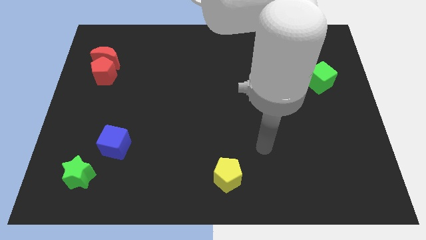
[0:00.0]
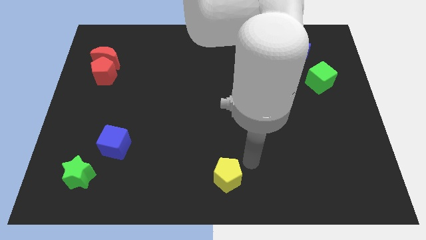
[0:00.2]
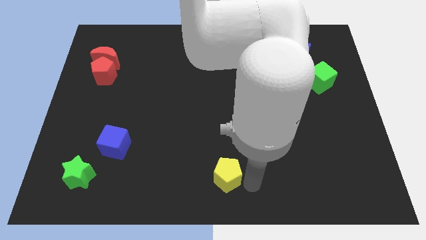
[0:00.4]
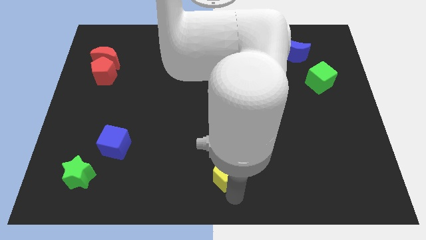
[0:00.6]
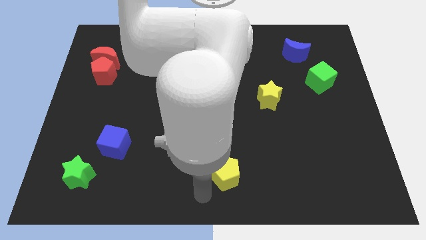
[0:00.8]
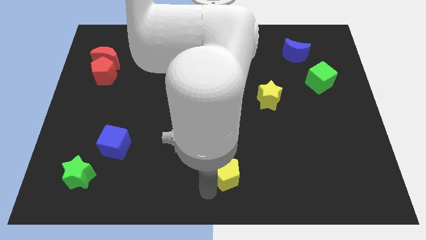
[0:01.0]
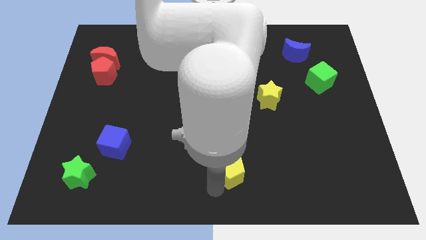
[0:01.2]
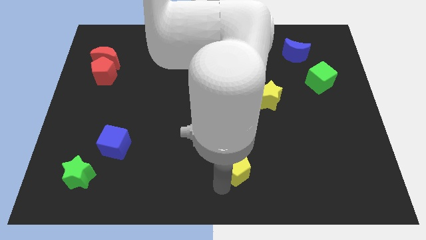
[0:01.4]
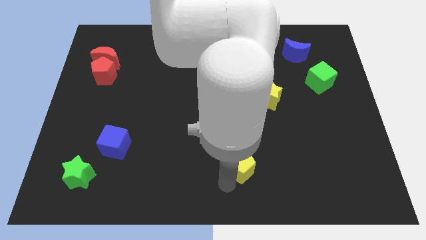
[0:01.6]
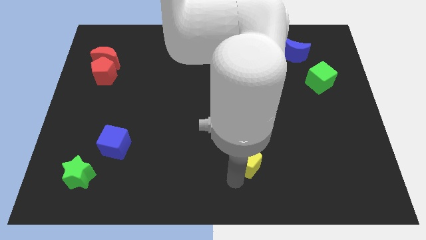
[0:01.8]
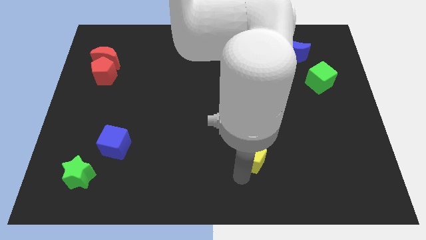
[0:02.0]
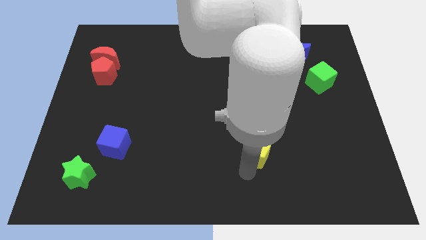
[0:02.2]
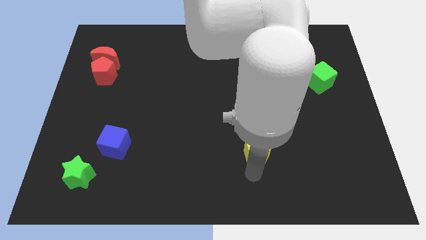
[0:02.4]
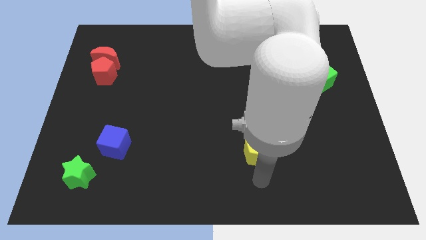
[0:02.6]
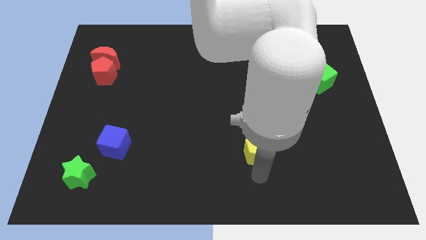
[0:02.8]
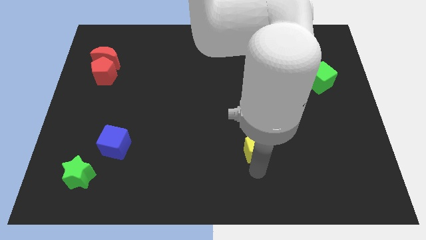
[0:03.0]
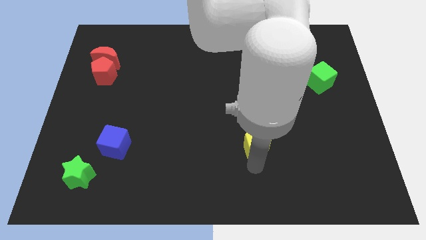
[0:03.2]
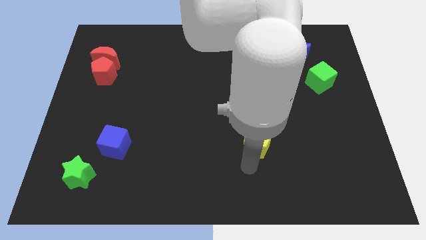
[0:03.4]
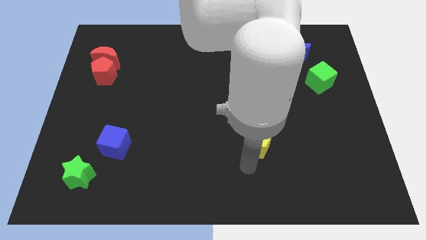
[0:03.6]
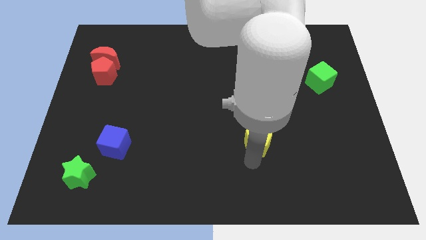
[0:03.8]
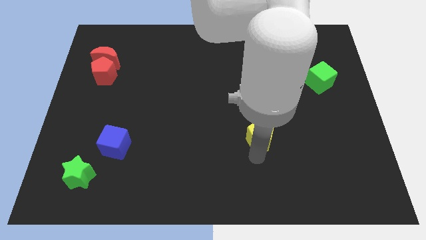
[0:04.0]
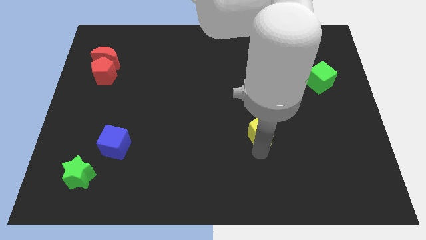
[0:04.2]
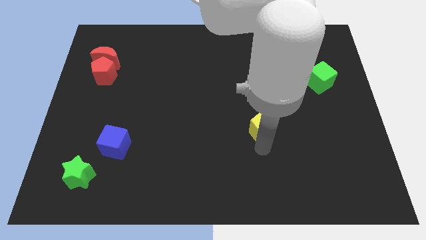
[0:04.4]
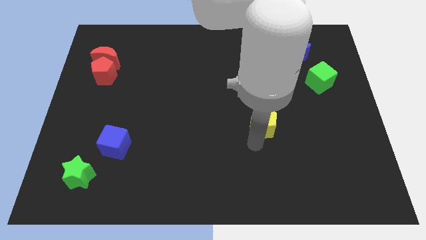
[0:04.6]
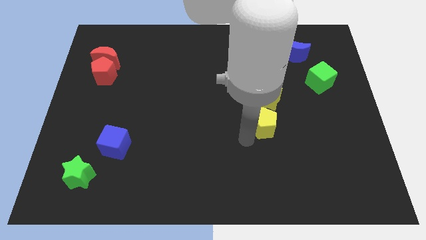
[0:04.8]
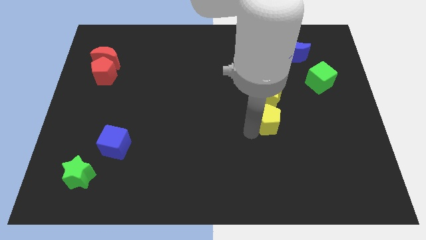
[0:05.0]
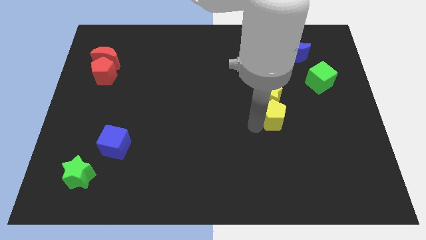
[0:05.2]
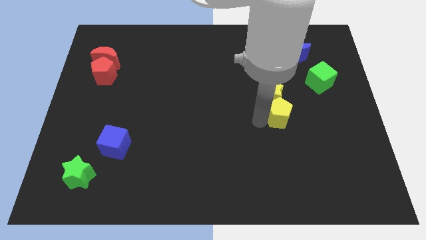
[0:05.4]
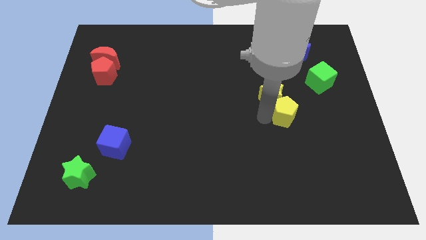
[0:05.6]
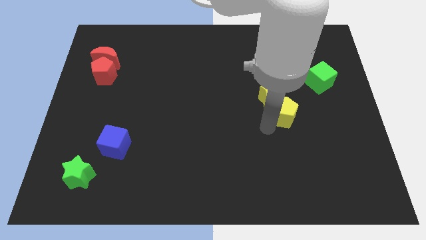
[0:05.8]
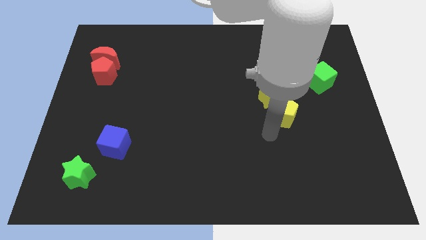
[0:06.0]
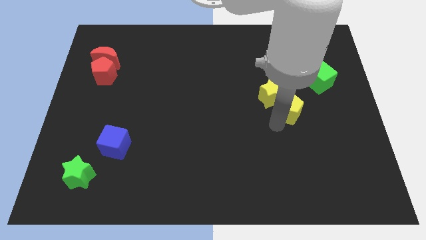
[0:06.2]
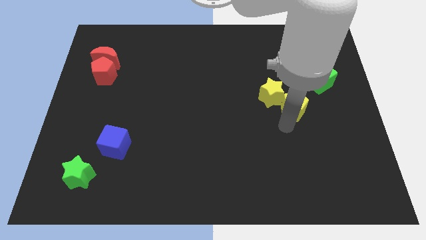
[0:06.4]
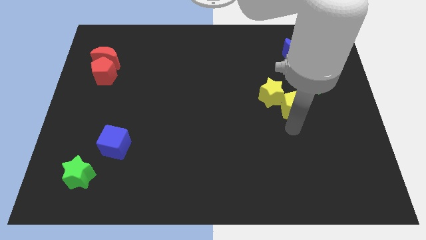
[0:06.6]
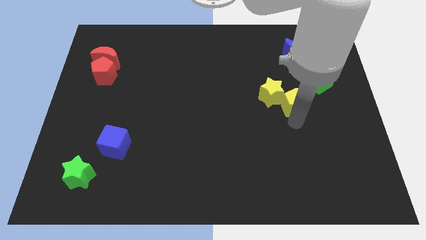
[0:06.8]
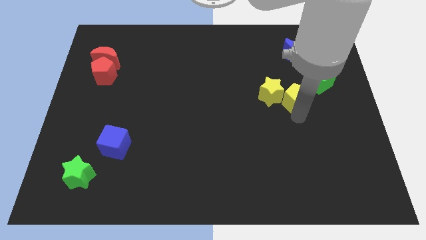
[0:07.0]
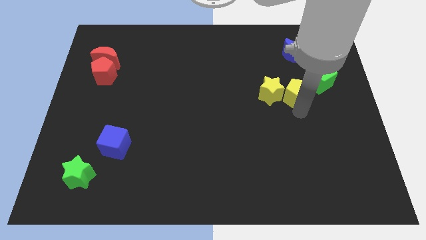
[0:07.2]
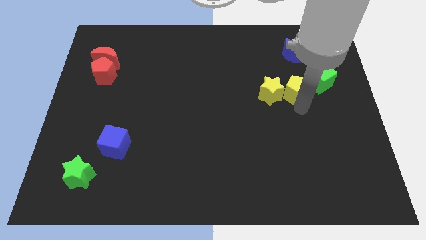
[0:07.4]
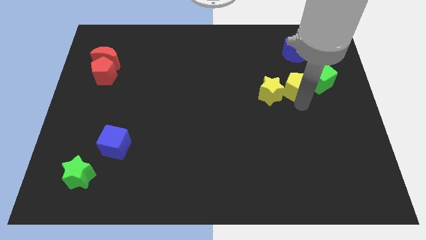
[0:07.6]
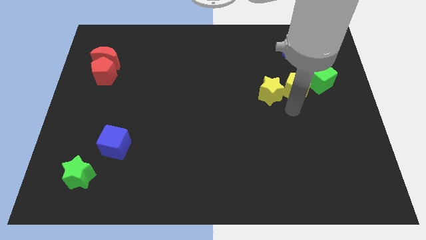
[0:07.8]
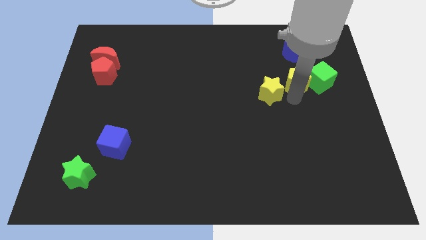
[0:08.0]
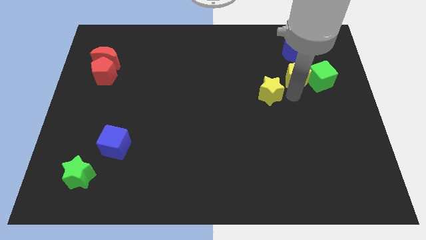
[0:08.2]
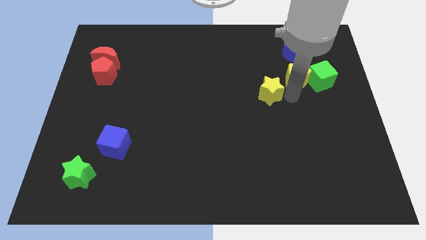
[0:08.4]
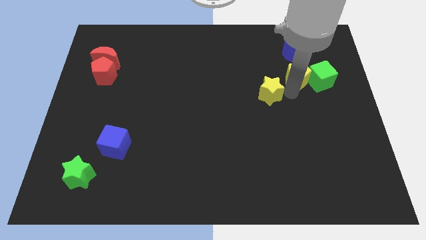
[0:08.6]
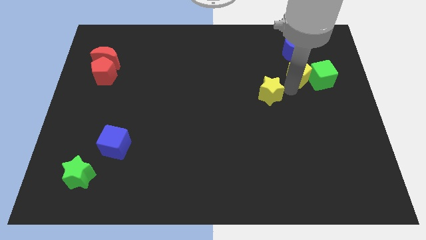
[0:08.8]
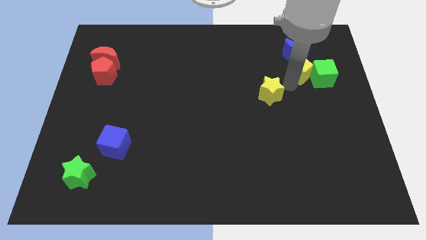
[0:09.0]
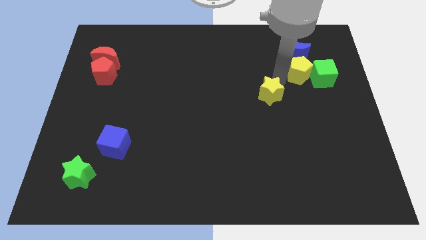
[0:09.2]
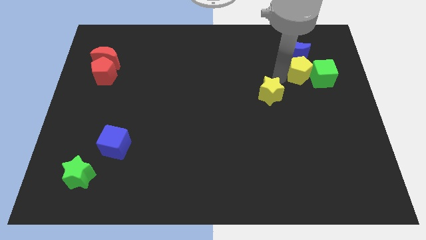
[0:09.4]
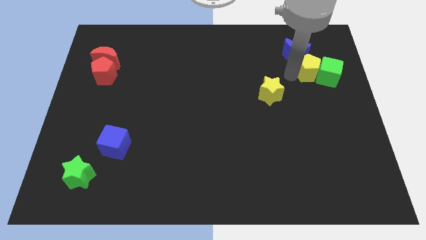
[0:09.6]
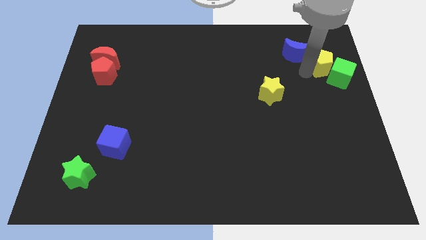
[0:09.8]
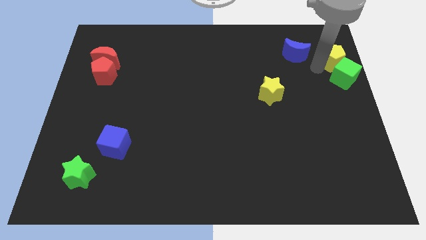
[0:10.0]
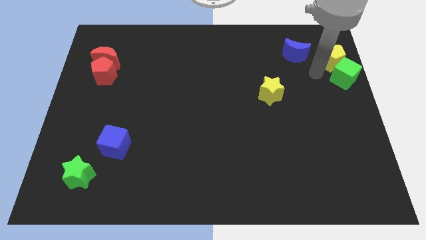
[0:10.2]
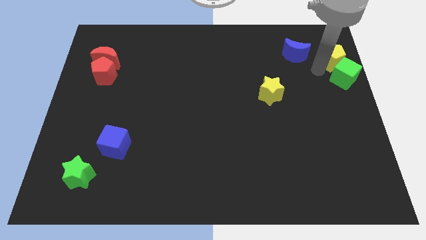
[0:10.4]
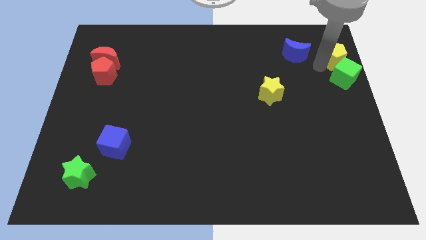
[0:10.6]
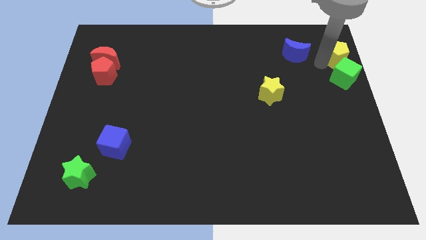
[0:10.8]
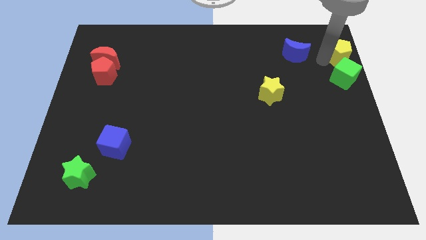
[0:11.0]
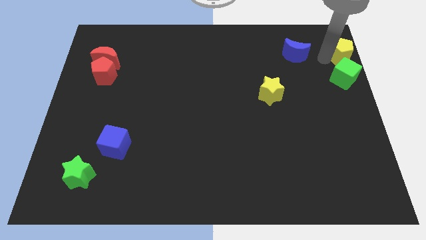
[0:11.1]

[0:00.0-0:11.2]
put the yellow pentagon to the upper right corner

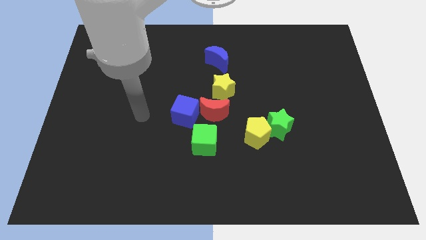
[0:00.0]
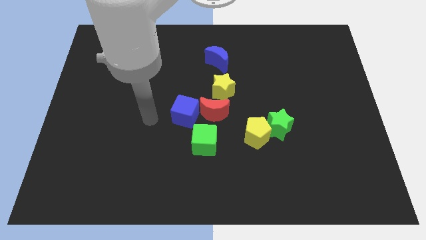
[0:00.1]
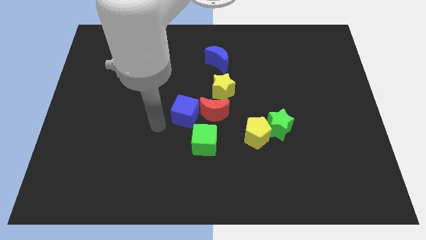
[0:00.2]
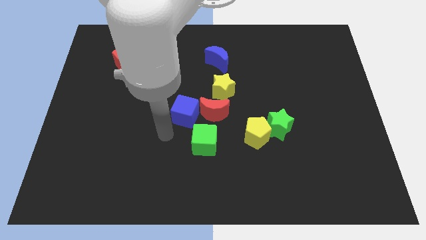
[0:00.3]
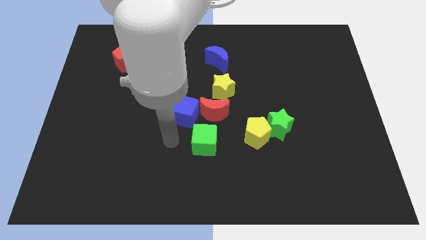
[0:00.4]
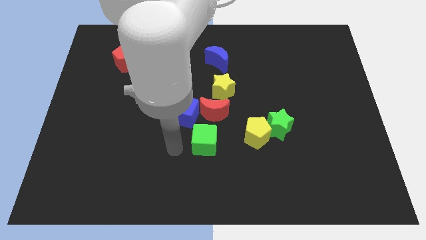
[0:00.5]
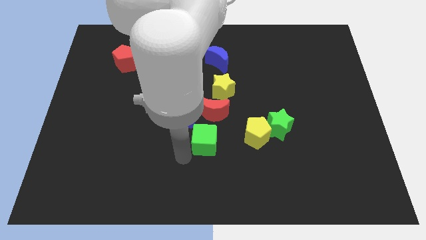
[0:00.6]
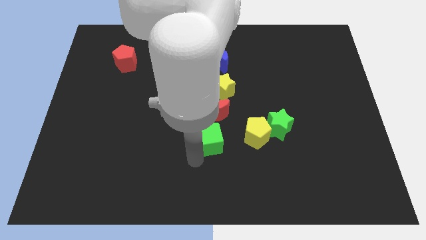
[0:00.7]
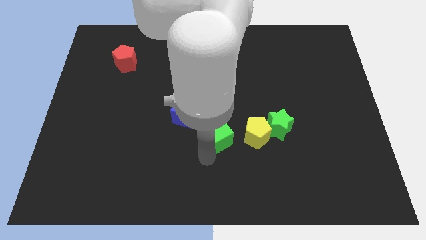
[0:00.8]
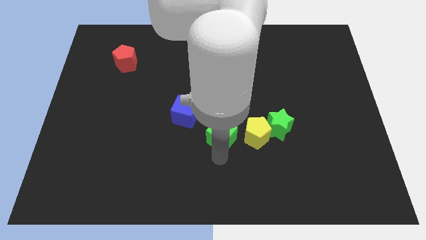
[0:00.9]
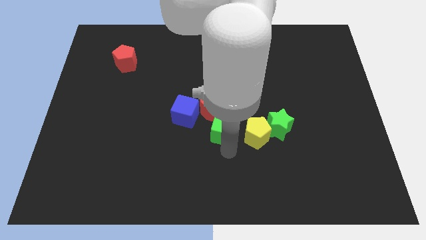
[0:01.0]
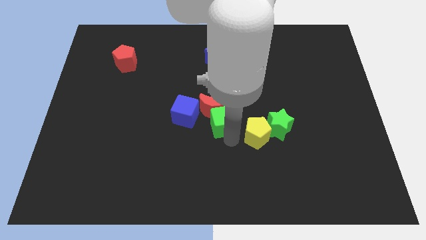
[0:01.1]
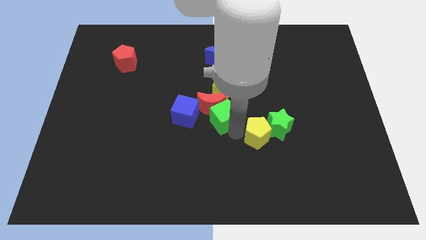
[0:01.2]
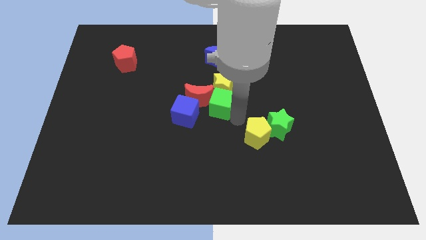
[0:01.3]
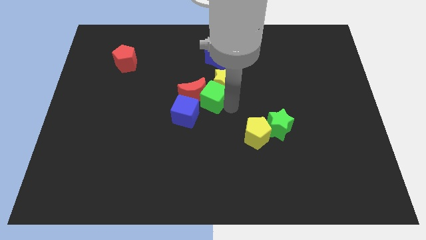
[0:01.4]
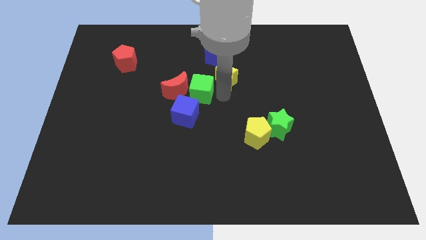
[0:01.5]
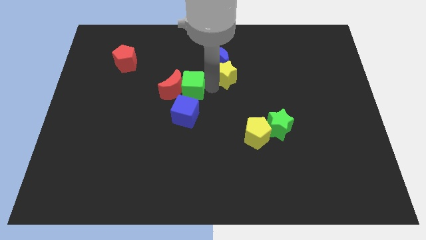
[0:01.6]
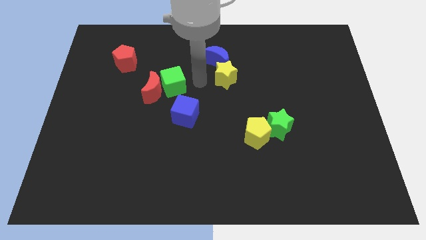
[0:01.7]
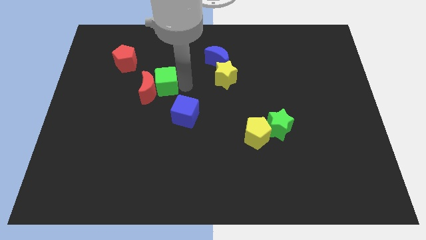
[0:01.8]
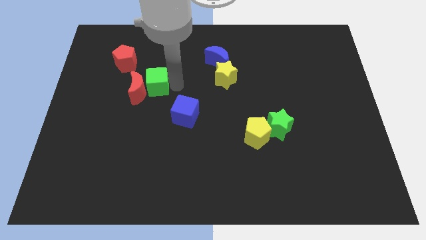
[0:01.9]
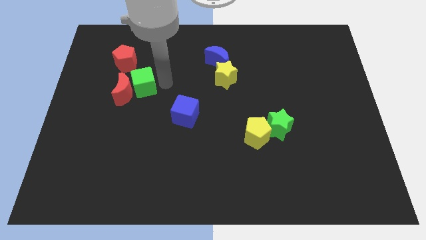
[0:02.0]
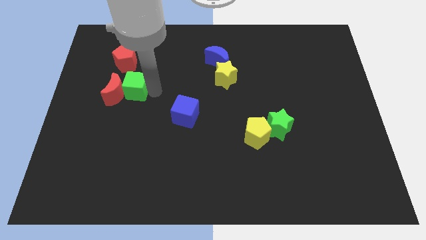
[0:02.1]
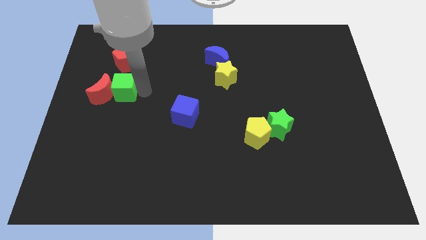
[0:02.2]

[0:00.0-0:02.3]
put the red moon to the center left
